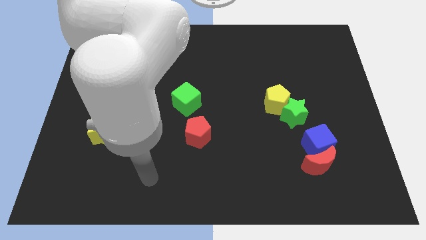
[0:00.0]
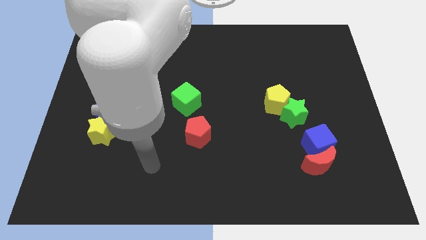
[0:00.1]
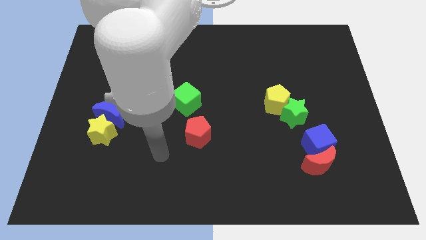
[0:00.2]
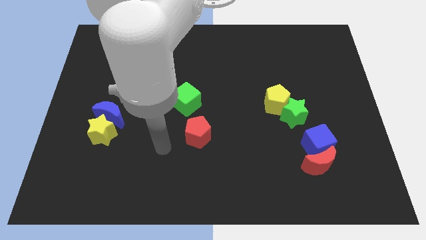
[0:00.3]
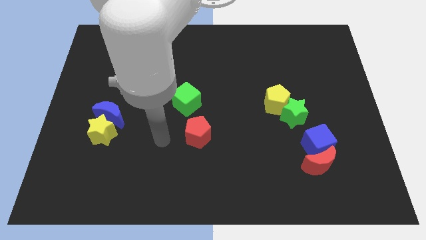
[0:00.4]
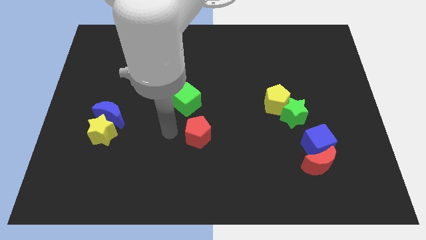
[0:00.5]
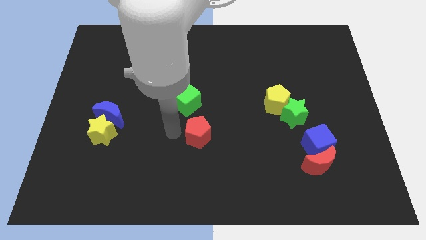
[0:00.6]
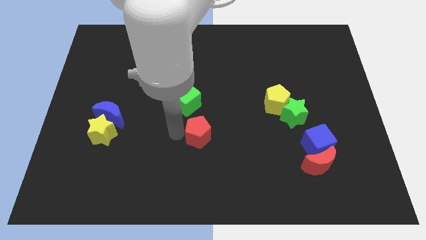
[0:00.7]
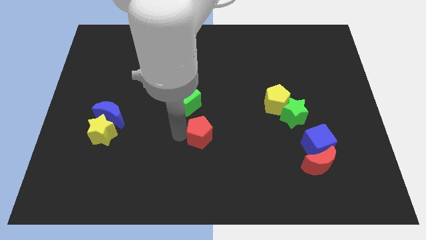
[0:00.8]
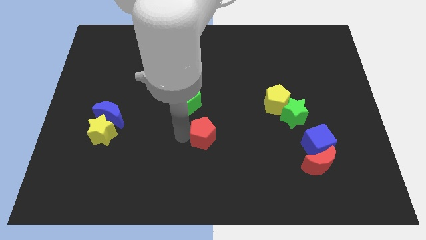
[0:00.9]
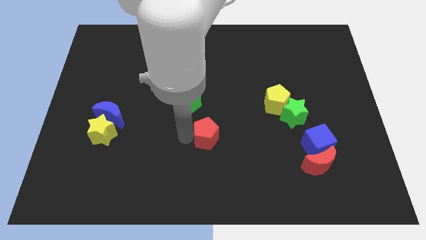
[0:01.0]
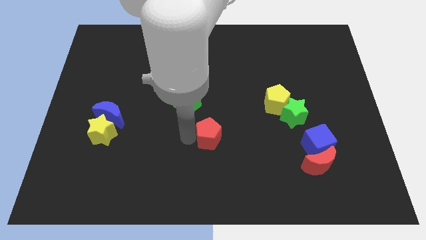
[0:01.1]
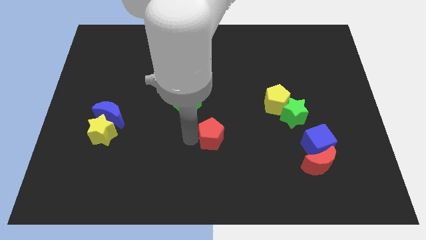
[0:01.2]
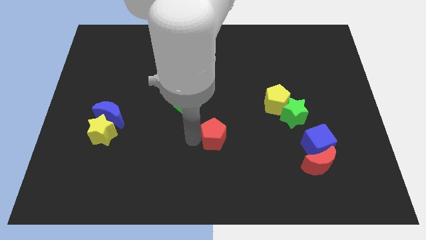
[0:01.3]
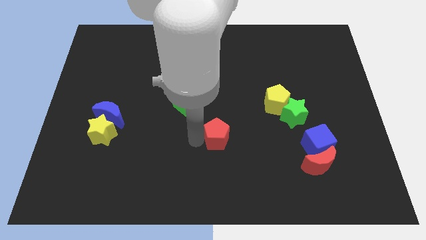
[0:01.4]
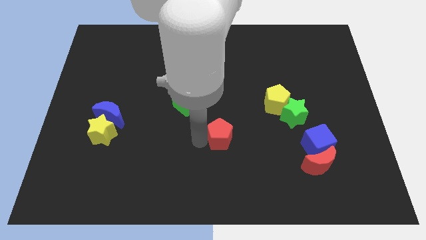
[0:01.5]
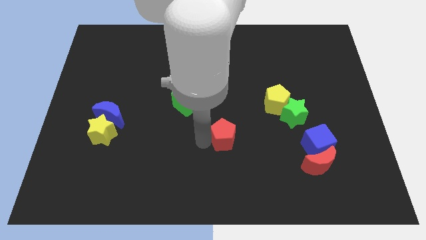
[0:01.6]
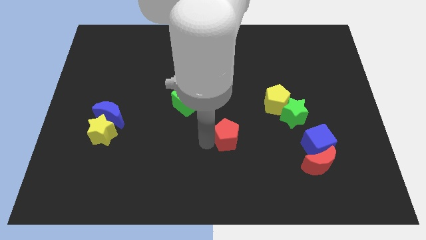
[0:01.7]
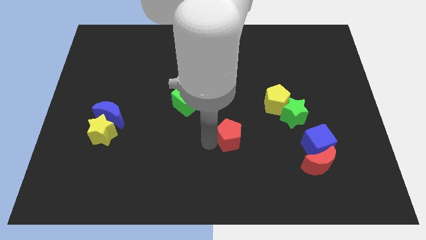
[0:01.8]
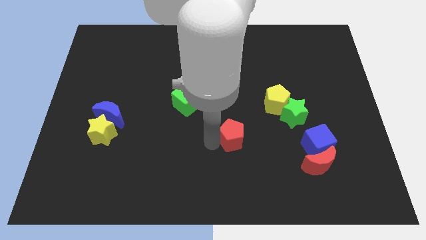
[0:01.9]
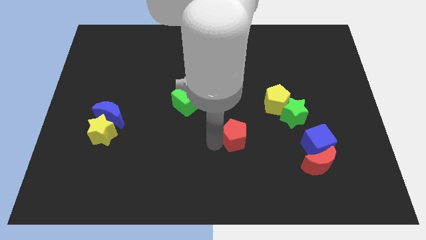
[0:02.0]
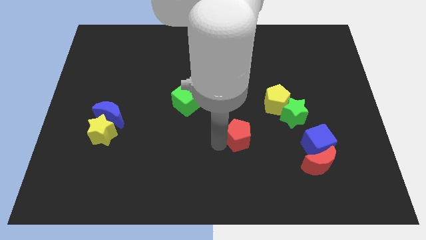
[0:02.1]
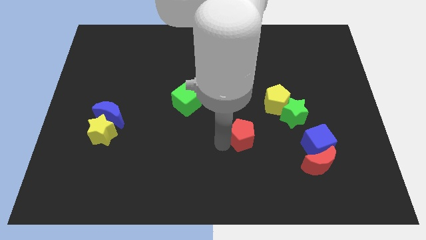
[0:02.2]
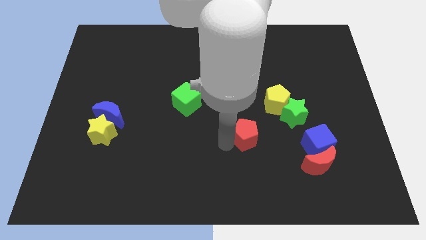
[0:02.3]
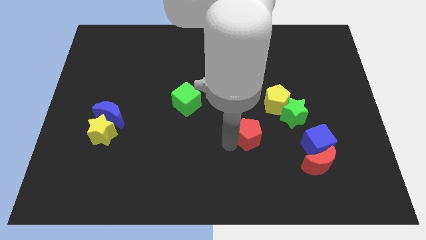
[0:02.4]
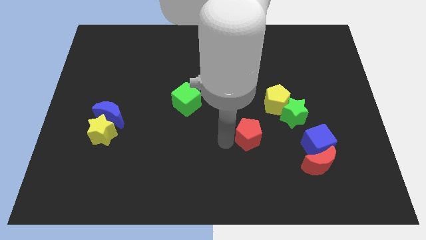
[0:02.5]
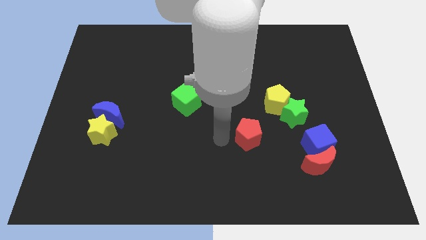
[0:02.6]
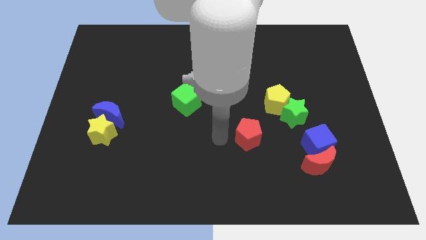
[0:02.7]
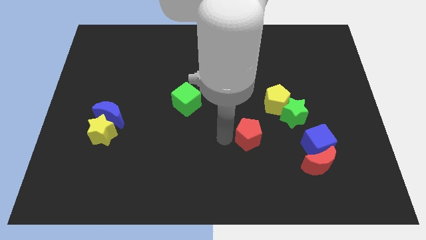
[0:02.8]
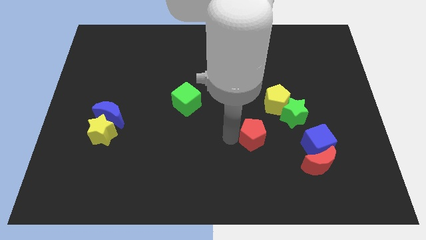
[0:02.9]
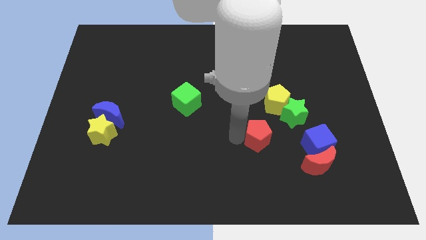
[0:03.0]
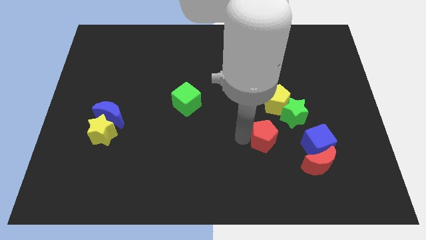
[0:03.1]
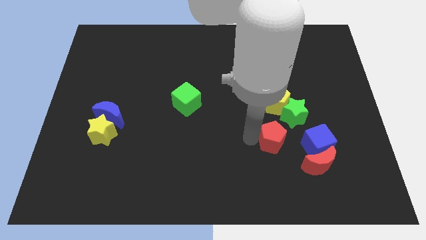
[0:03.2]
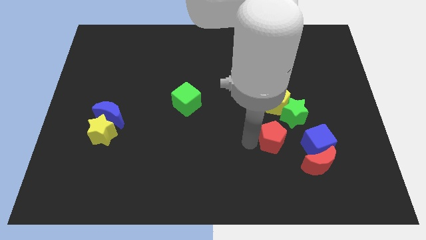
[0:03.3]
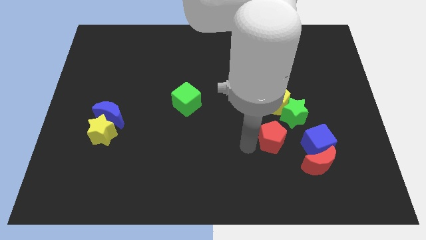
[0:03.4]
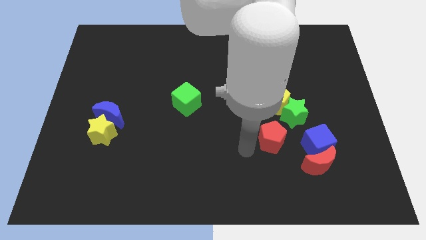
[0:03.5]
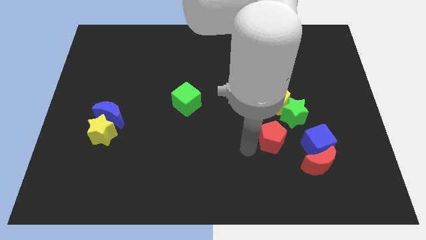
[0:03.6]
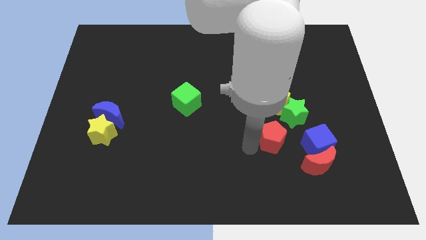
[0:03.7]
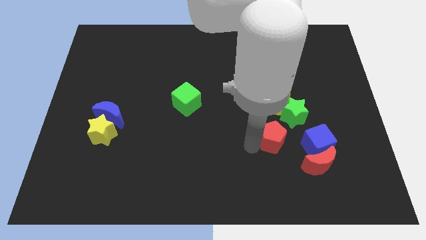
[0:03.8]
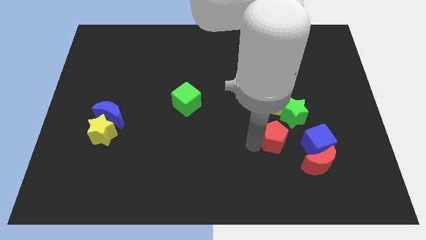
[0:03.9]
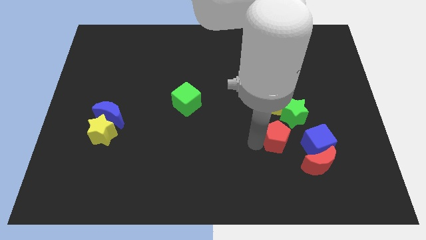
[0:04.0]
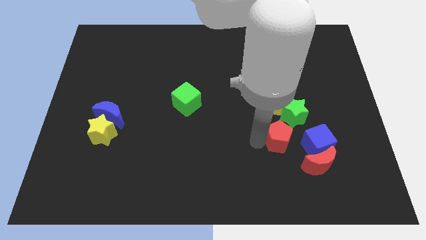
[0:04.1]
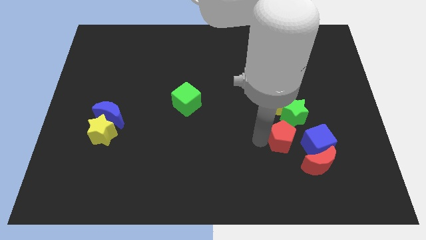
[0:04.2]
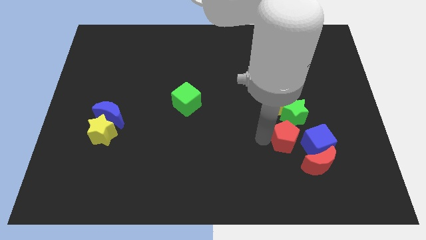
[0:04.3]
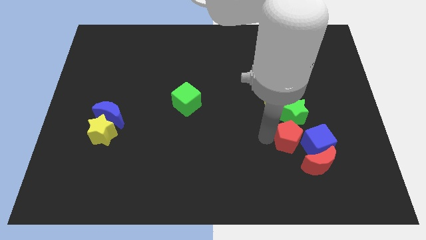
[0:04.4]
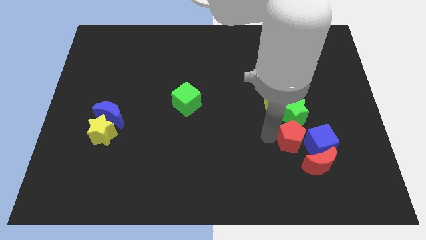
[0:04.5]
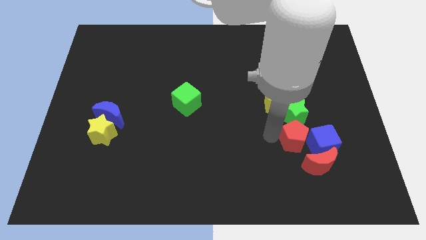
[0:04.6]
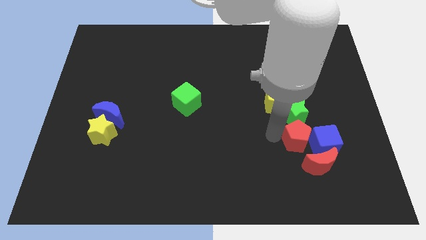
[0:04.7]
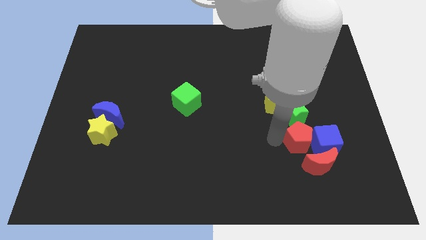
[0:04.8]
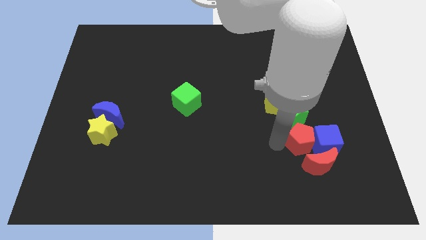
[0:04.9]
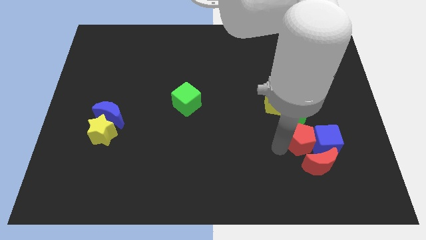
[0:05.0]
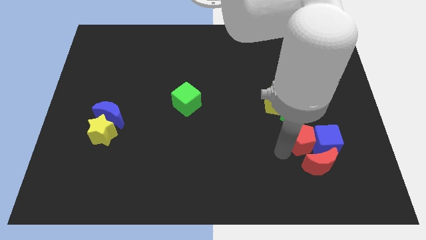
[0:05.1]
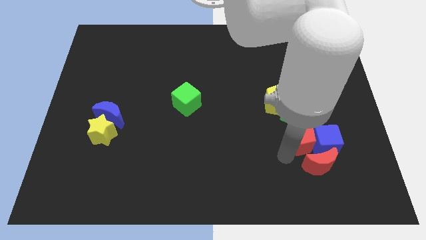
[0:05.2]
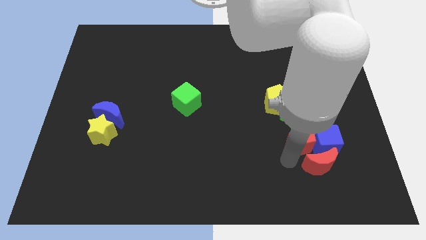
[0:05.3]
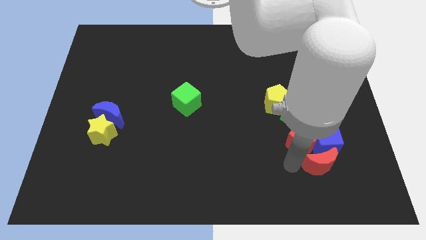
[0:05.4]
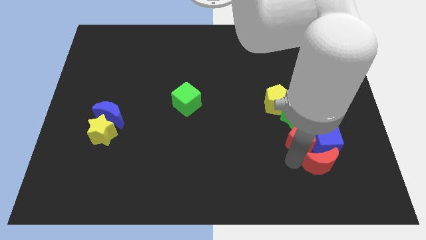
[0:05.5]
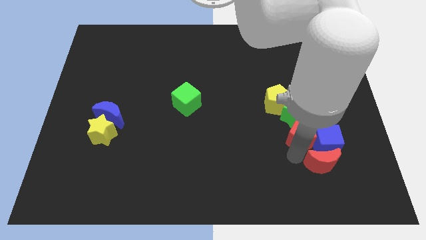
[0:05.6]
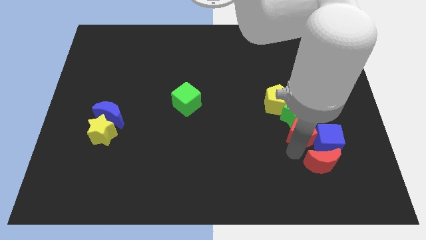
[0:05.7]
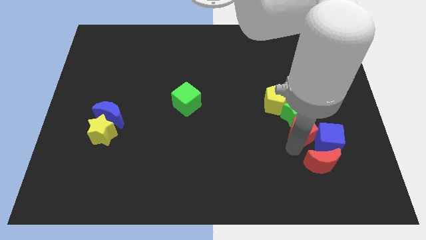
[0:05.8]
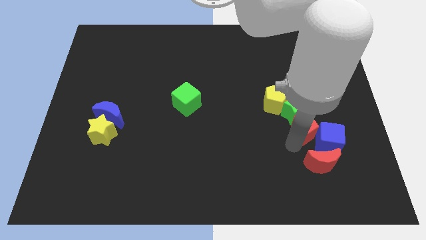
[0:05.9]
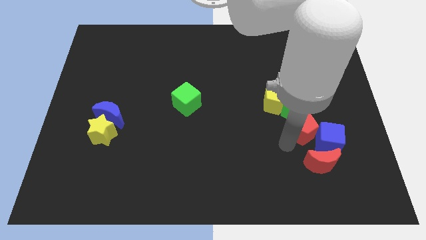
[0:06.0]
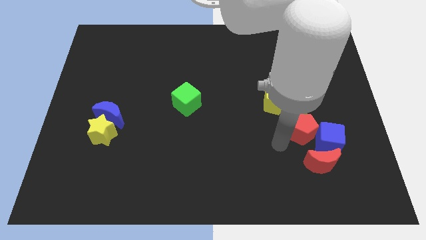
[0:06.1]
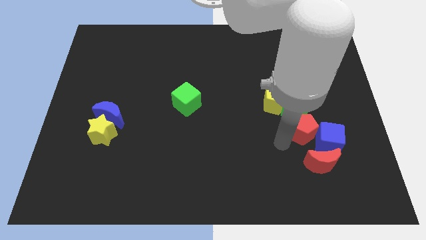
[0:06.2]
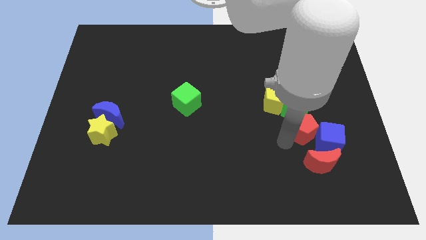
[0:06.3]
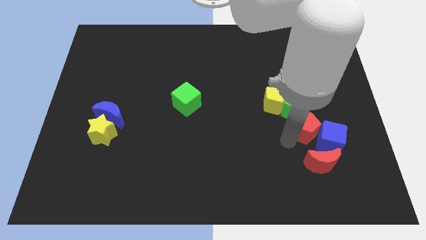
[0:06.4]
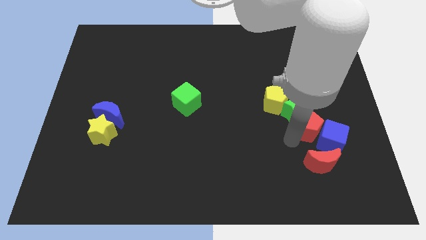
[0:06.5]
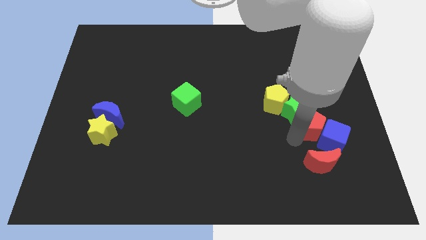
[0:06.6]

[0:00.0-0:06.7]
push the red pentagon above the blue cube

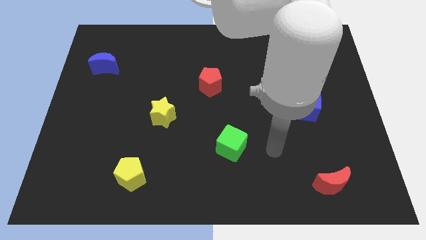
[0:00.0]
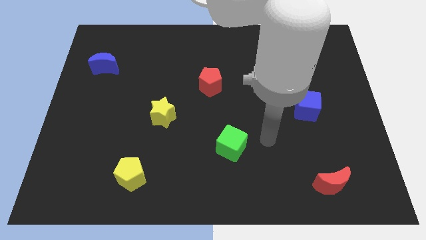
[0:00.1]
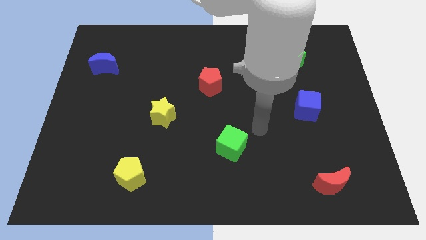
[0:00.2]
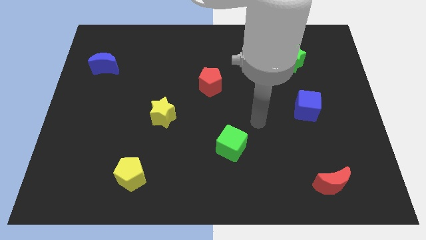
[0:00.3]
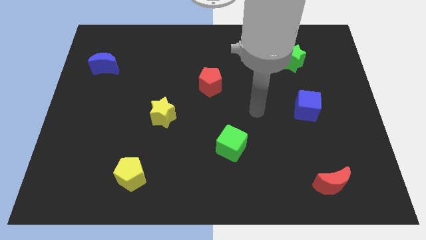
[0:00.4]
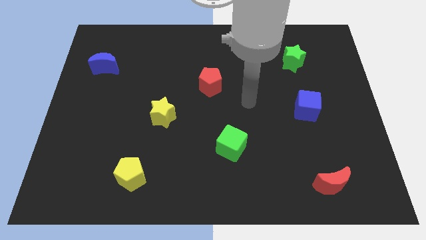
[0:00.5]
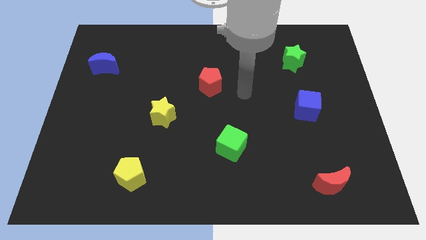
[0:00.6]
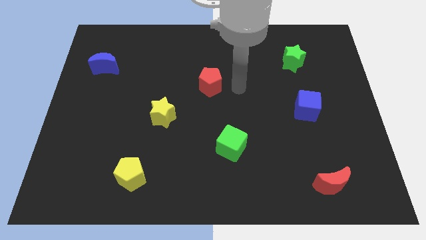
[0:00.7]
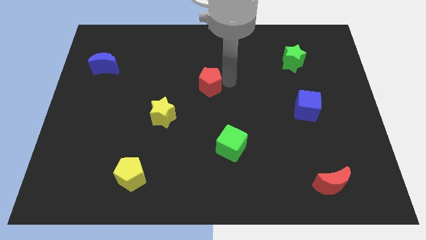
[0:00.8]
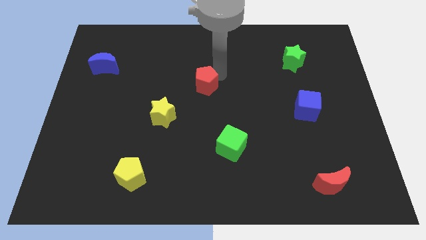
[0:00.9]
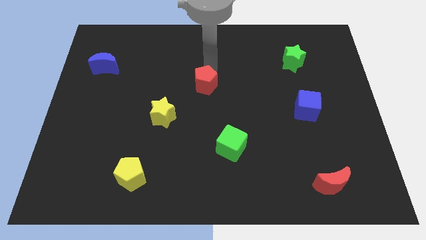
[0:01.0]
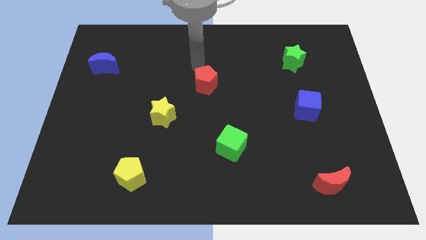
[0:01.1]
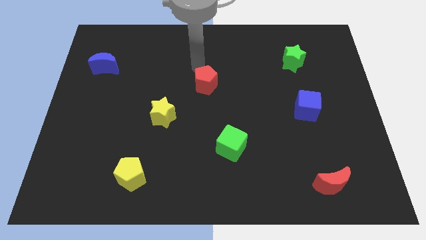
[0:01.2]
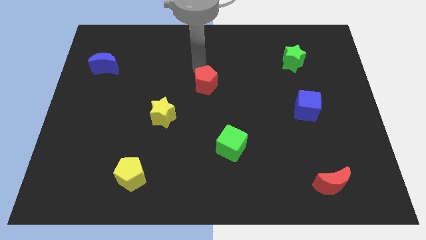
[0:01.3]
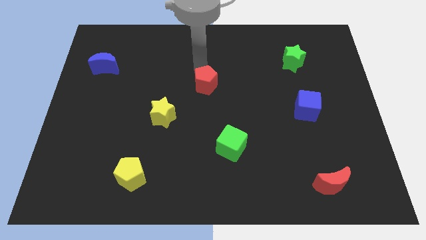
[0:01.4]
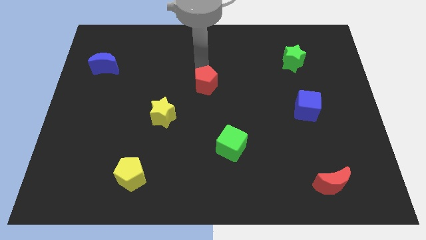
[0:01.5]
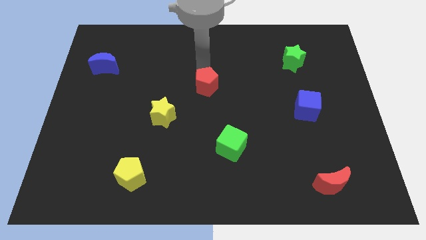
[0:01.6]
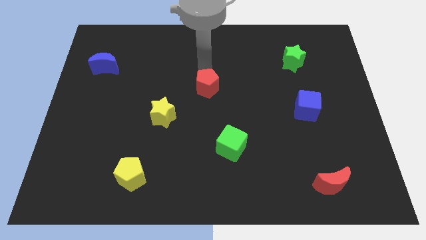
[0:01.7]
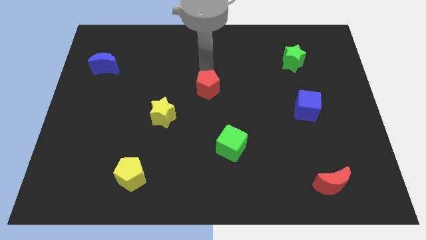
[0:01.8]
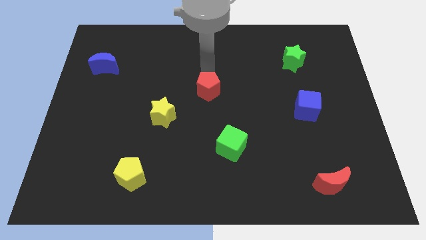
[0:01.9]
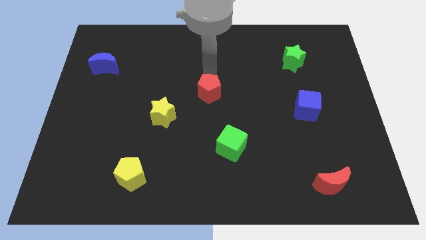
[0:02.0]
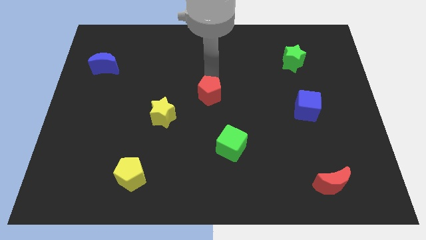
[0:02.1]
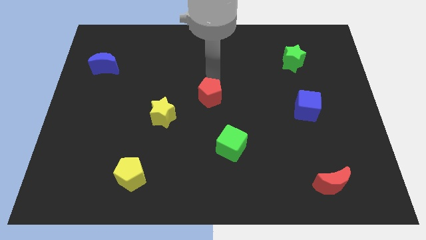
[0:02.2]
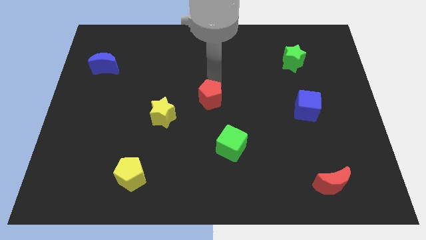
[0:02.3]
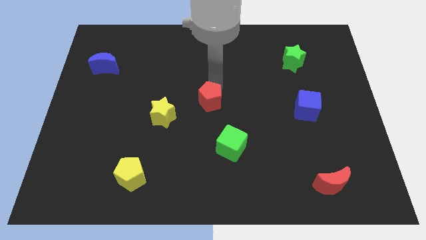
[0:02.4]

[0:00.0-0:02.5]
slide the red pentagon right of the yellow star
